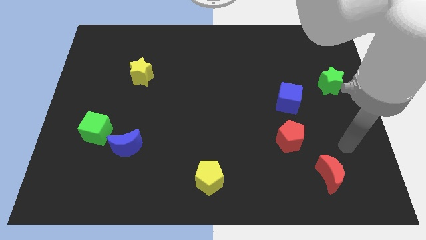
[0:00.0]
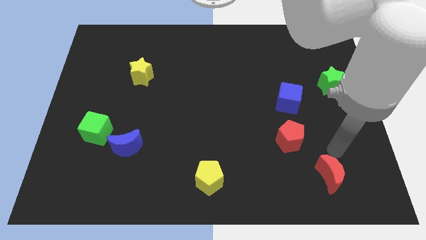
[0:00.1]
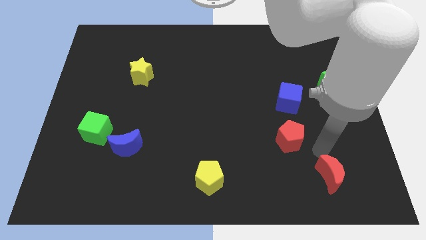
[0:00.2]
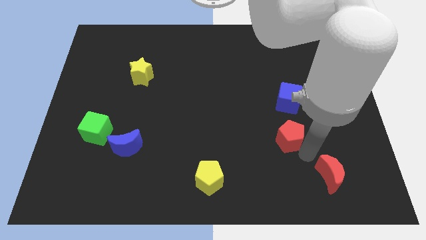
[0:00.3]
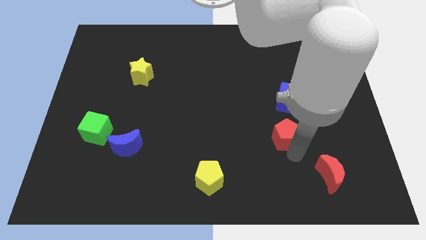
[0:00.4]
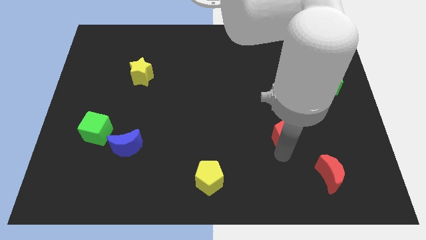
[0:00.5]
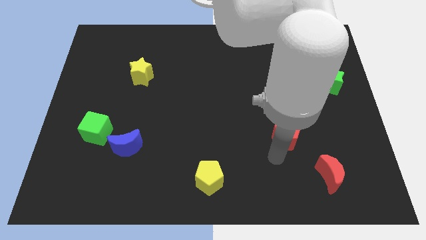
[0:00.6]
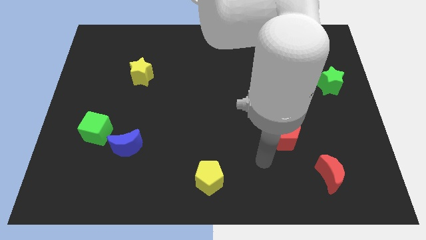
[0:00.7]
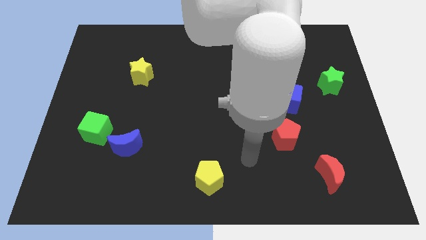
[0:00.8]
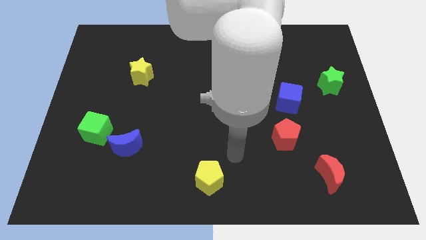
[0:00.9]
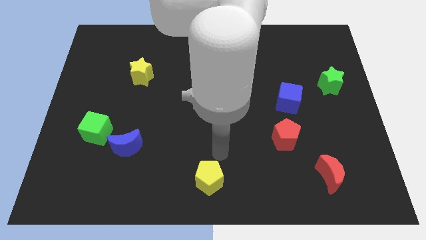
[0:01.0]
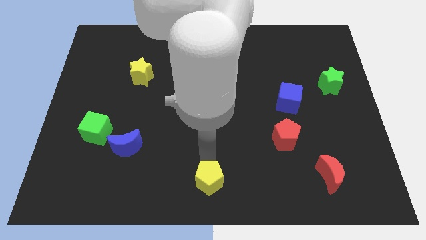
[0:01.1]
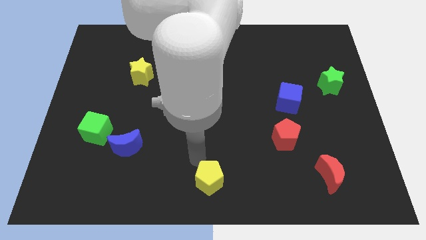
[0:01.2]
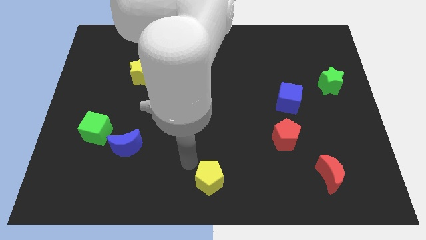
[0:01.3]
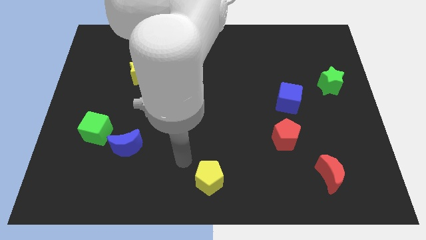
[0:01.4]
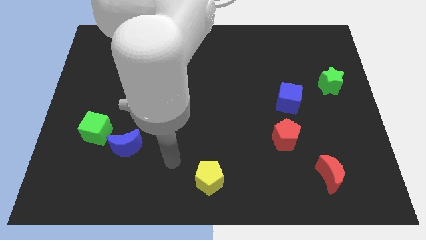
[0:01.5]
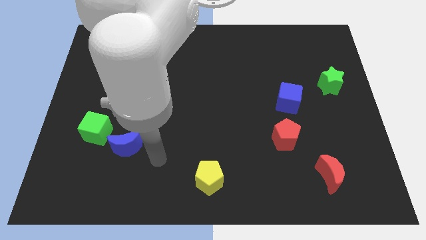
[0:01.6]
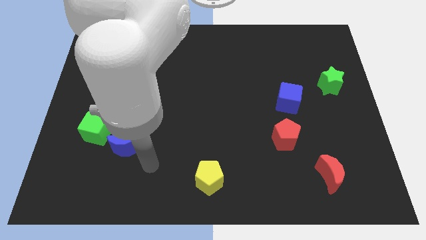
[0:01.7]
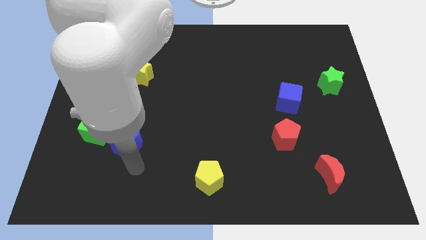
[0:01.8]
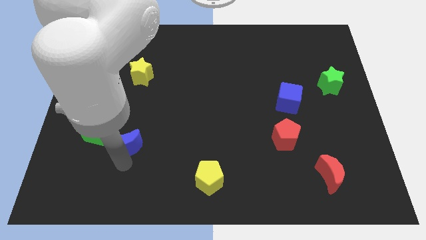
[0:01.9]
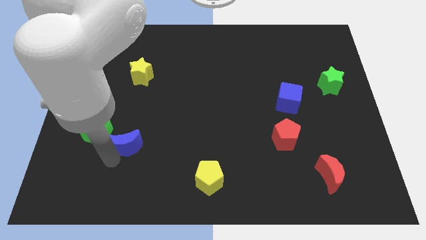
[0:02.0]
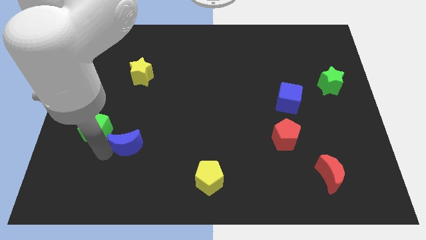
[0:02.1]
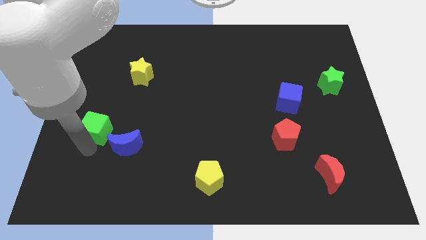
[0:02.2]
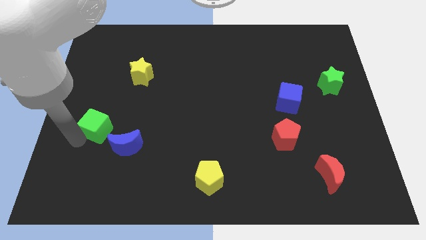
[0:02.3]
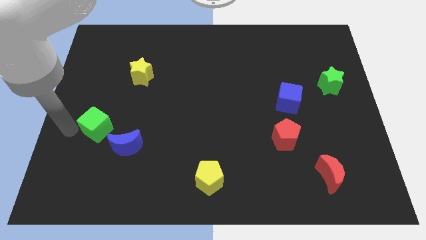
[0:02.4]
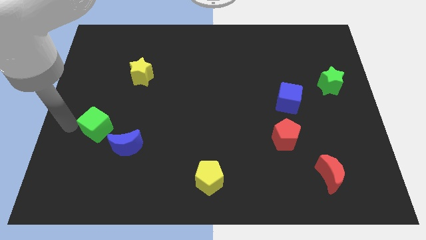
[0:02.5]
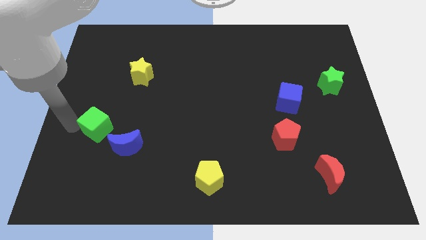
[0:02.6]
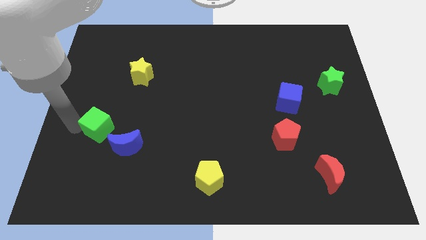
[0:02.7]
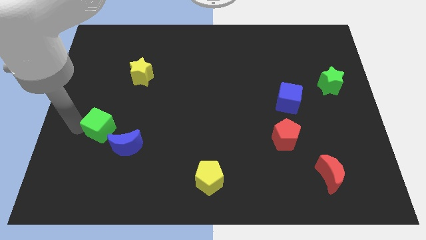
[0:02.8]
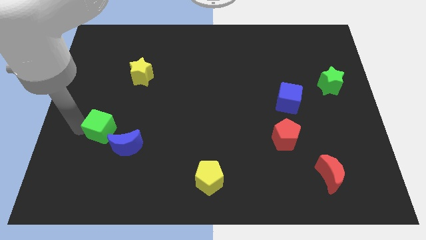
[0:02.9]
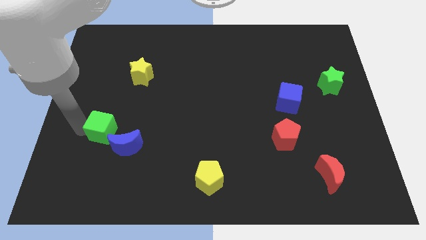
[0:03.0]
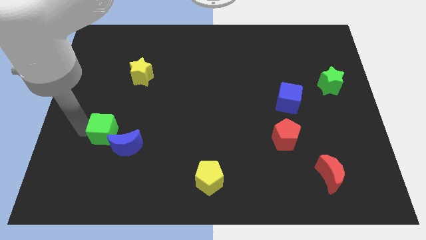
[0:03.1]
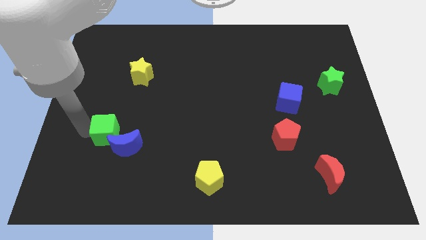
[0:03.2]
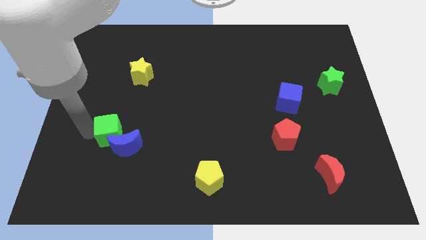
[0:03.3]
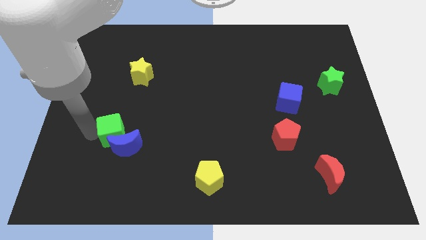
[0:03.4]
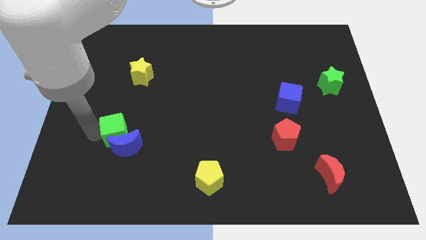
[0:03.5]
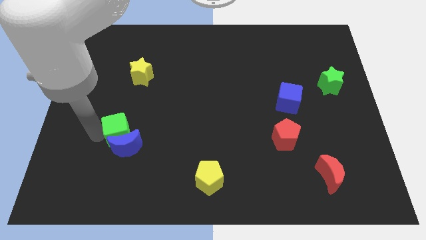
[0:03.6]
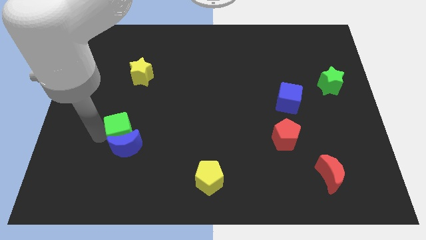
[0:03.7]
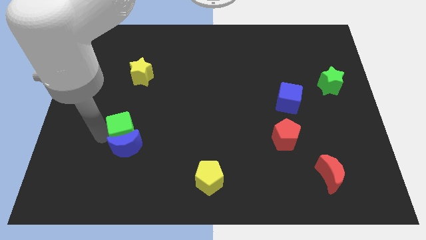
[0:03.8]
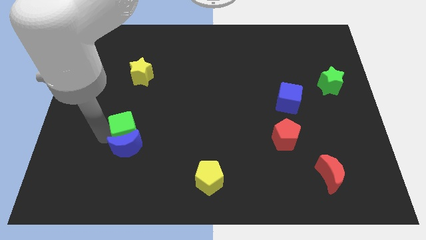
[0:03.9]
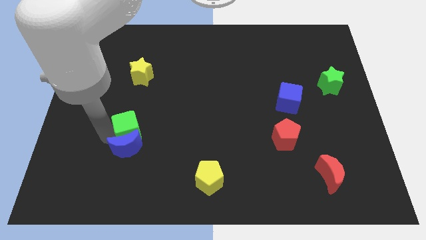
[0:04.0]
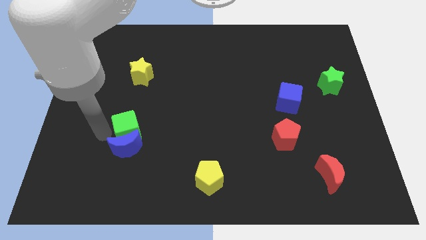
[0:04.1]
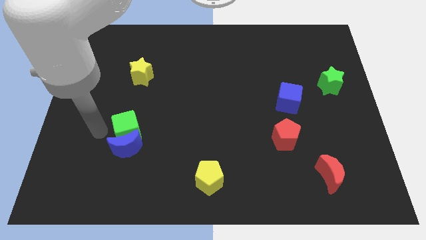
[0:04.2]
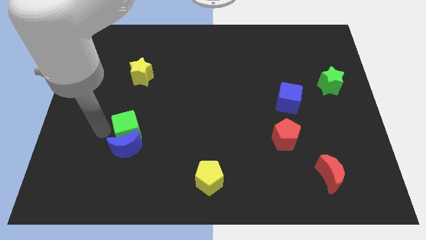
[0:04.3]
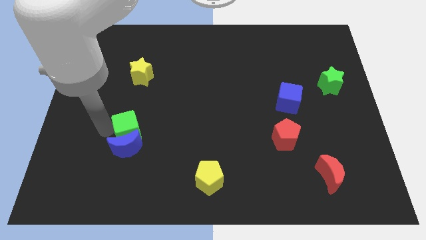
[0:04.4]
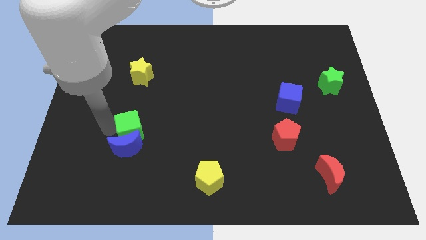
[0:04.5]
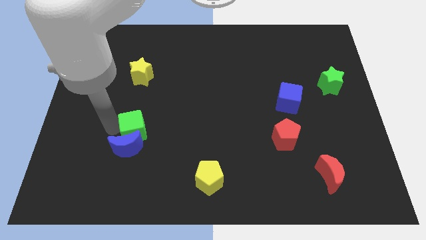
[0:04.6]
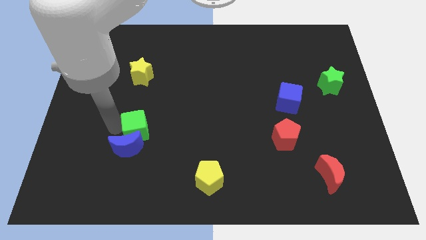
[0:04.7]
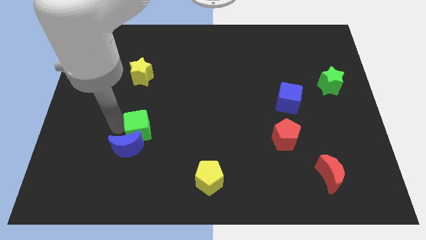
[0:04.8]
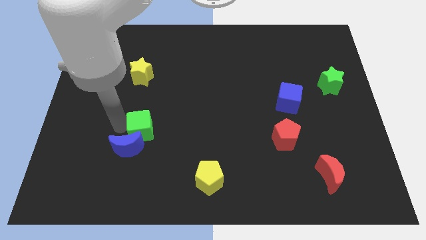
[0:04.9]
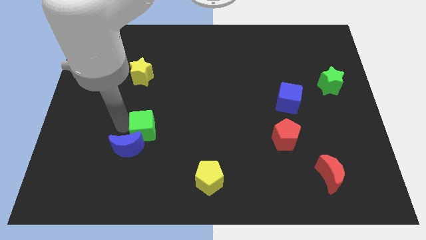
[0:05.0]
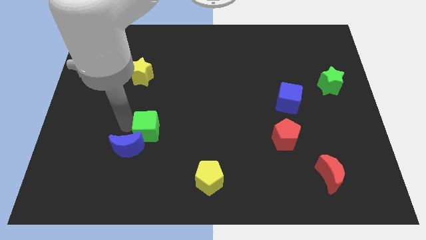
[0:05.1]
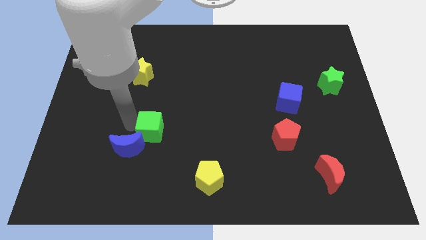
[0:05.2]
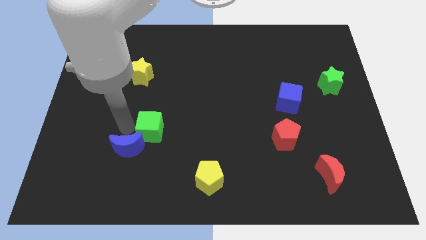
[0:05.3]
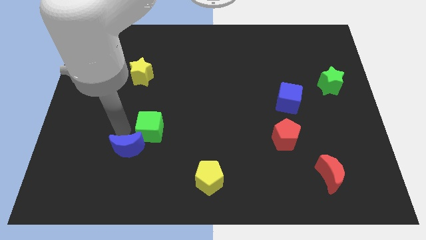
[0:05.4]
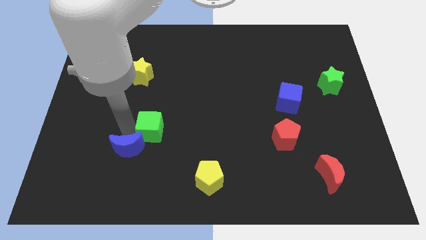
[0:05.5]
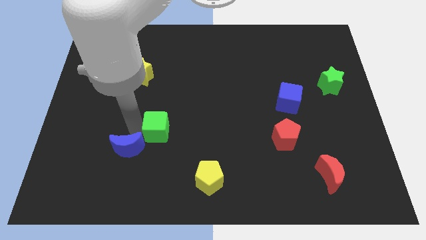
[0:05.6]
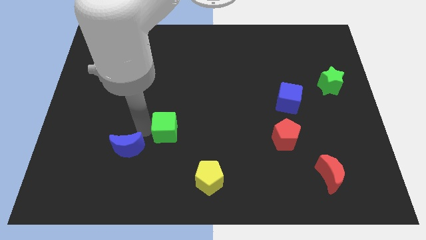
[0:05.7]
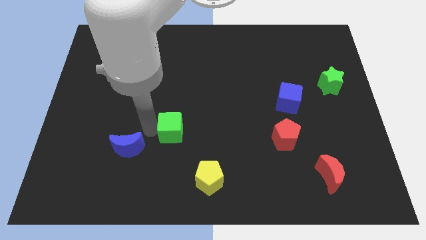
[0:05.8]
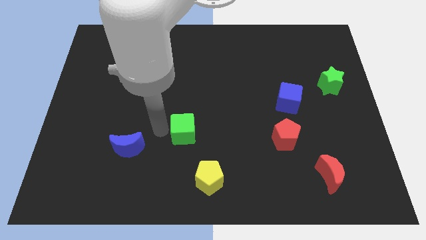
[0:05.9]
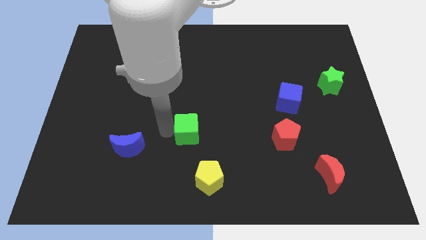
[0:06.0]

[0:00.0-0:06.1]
move the green cube to the right

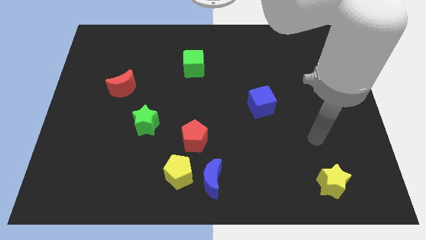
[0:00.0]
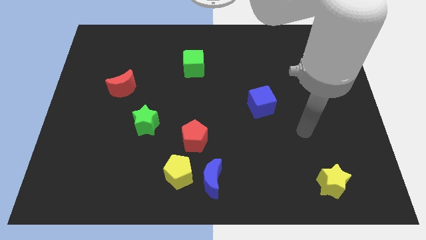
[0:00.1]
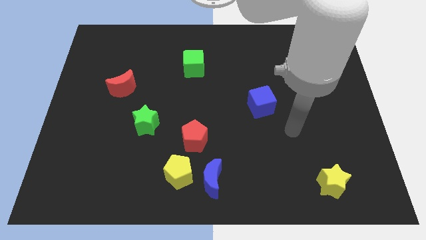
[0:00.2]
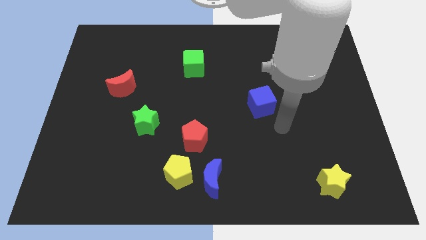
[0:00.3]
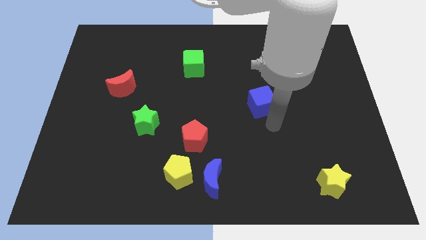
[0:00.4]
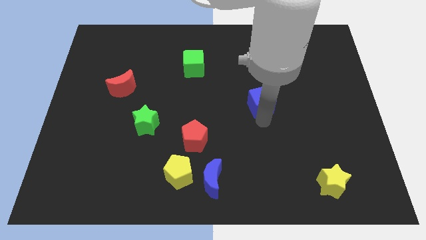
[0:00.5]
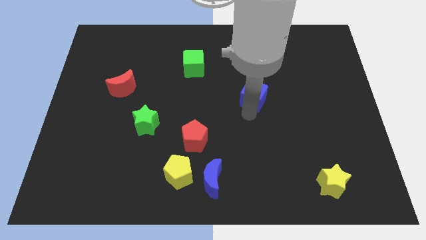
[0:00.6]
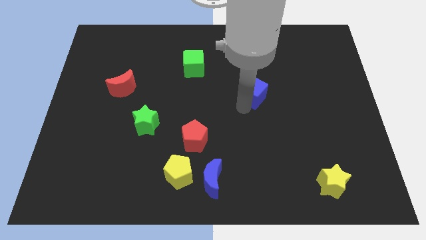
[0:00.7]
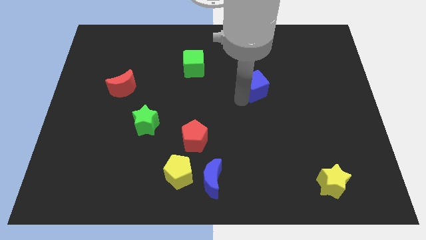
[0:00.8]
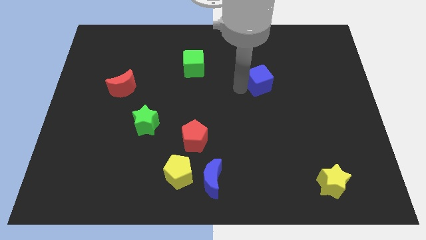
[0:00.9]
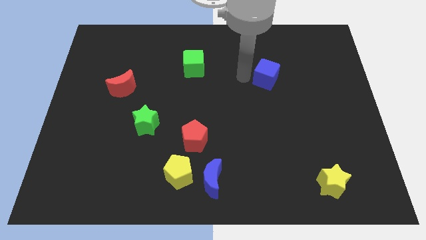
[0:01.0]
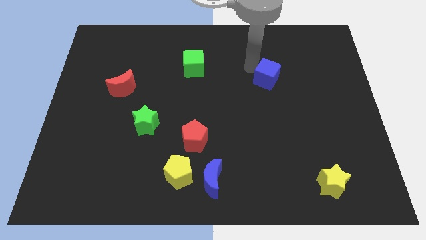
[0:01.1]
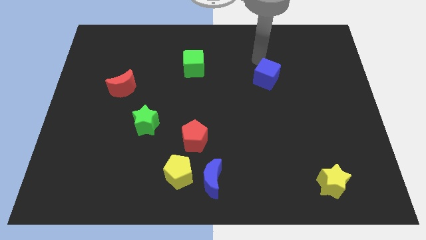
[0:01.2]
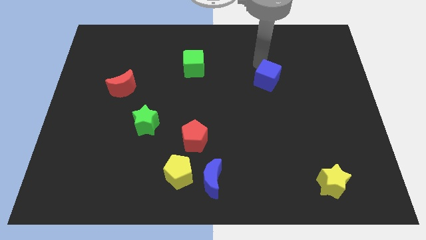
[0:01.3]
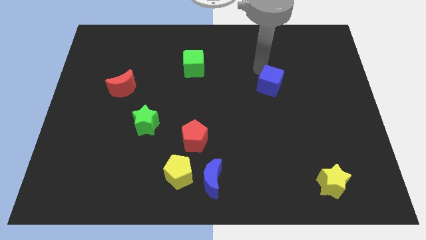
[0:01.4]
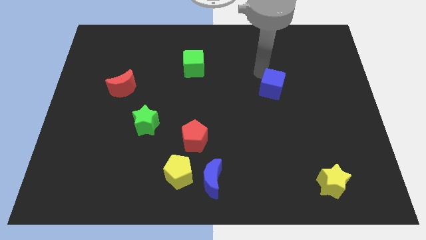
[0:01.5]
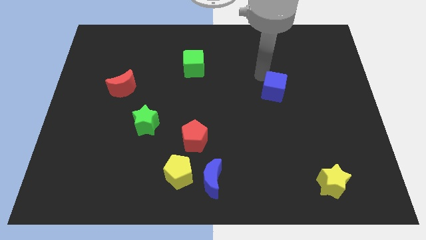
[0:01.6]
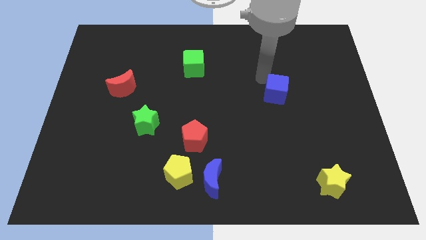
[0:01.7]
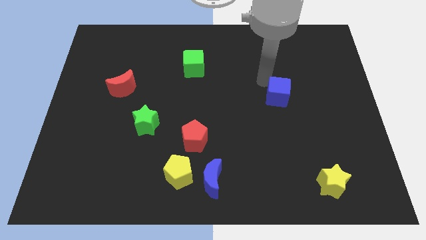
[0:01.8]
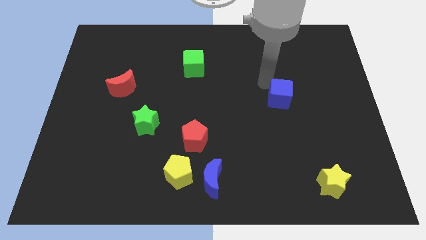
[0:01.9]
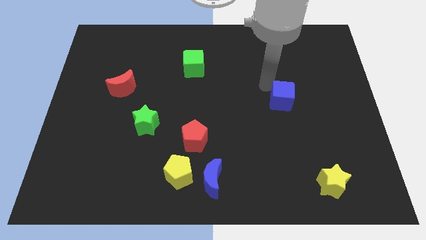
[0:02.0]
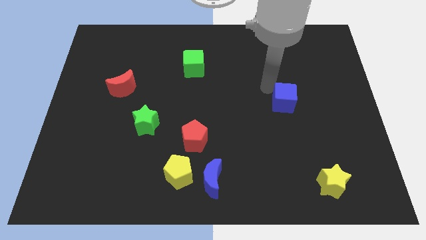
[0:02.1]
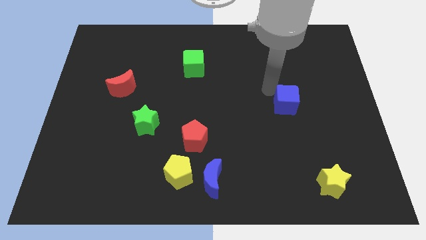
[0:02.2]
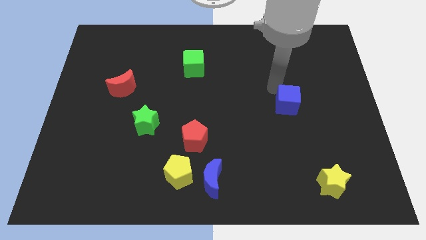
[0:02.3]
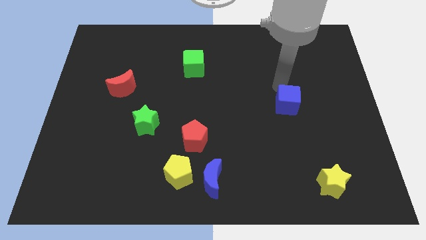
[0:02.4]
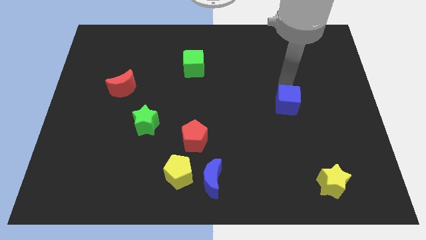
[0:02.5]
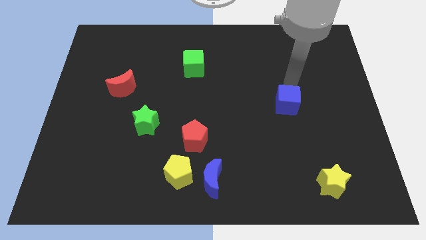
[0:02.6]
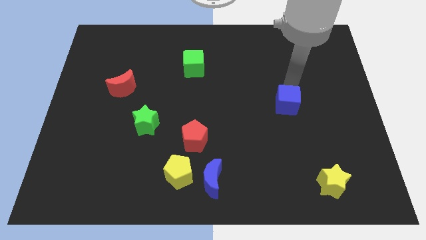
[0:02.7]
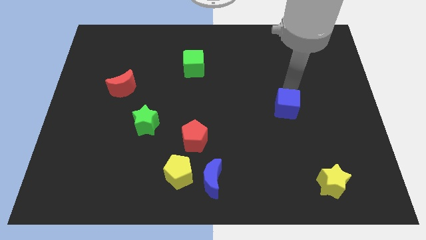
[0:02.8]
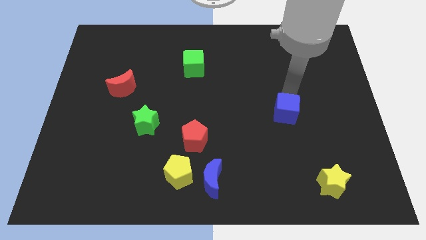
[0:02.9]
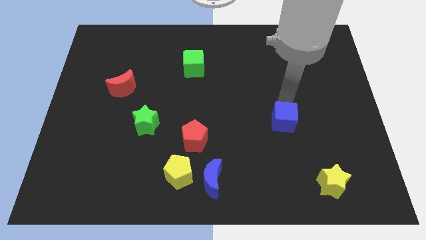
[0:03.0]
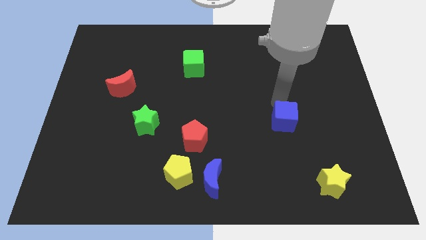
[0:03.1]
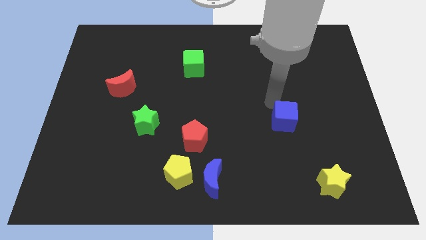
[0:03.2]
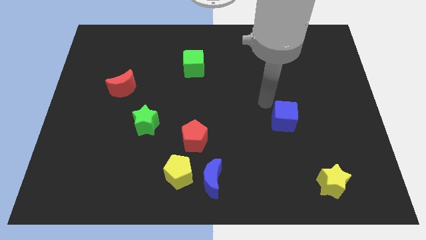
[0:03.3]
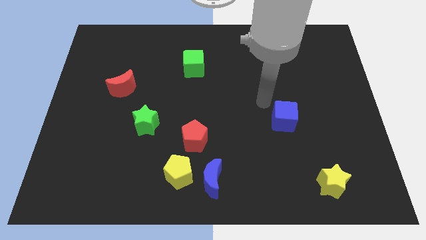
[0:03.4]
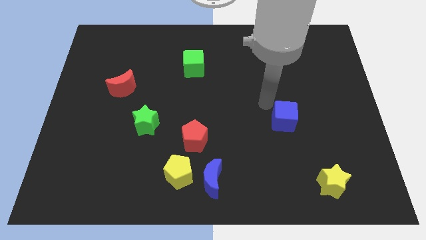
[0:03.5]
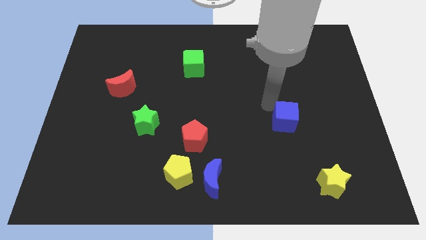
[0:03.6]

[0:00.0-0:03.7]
slightly move the blue cube down and then right
